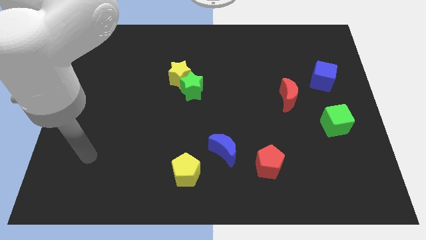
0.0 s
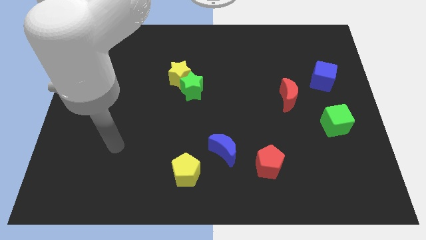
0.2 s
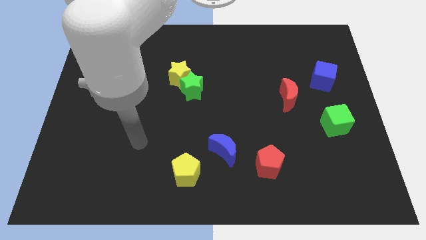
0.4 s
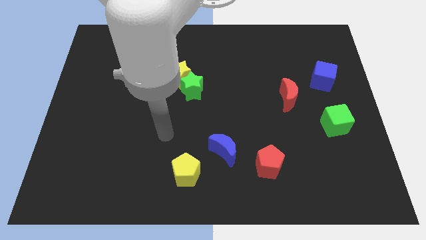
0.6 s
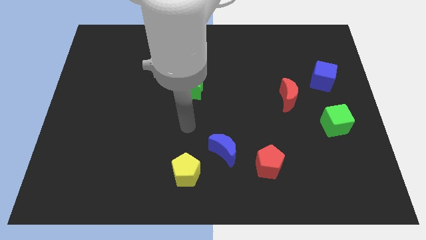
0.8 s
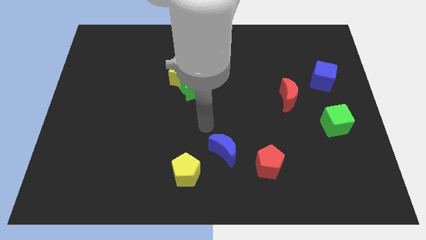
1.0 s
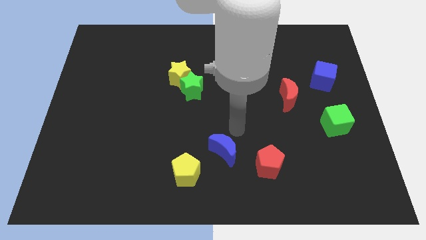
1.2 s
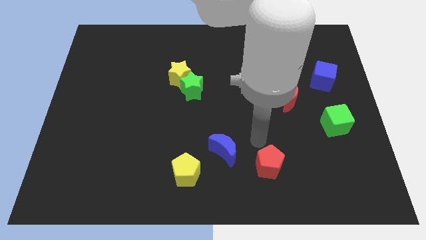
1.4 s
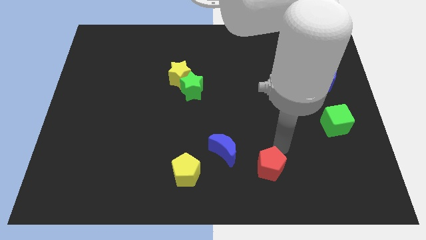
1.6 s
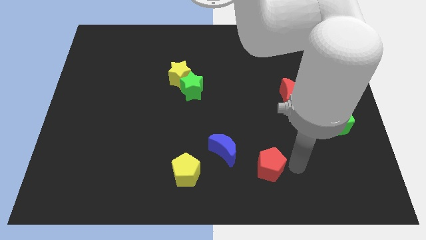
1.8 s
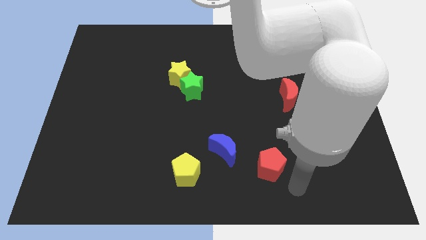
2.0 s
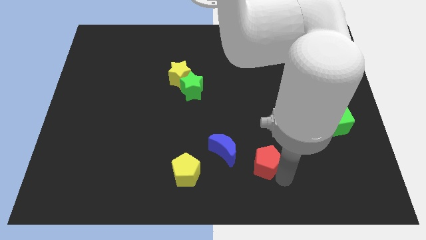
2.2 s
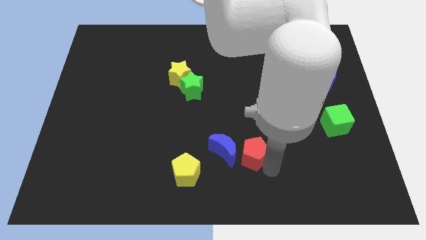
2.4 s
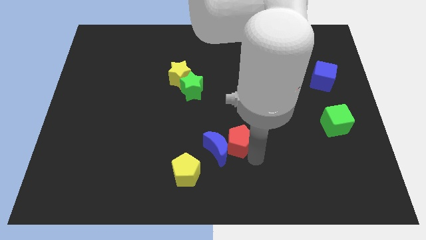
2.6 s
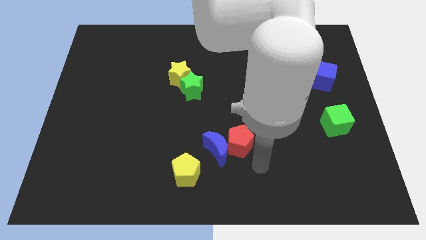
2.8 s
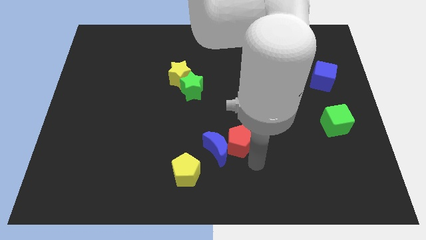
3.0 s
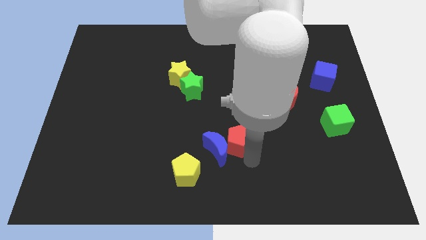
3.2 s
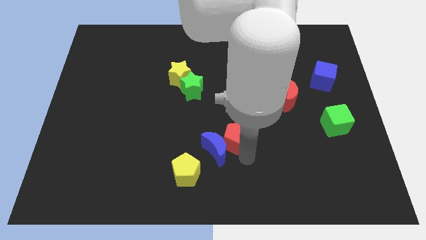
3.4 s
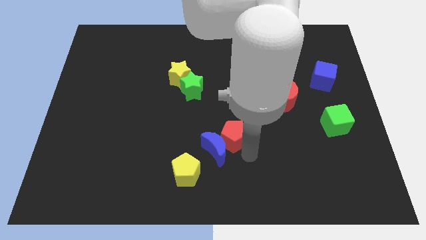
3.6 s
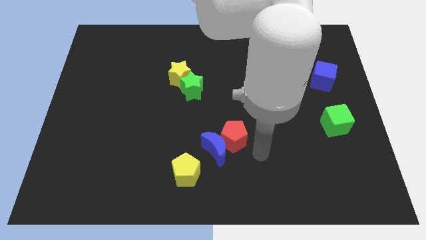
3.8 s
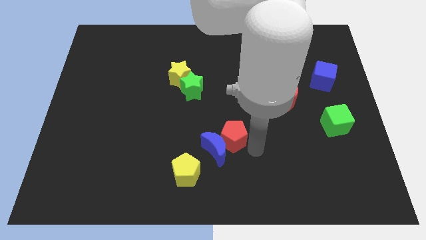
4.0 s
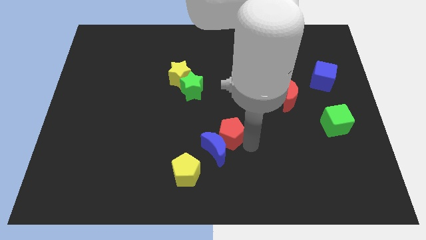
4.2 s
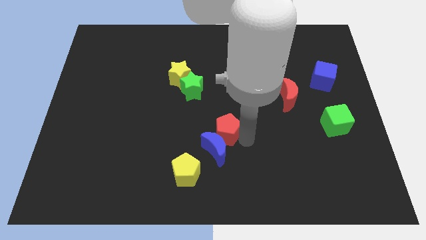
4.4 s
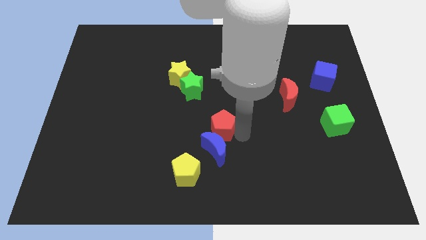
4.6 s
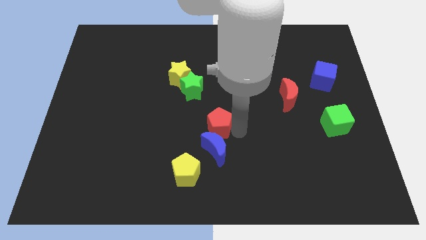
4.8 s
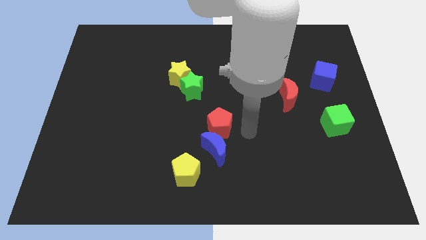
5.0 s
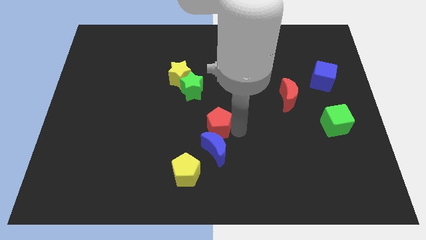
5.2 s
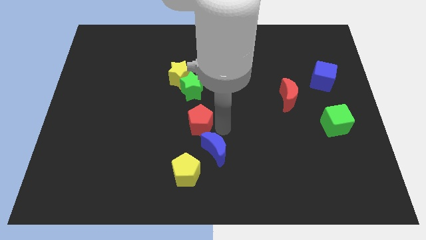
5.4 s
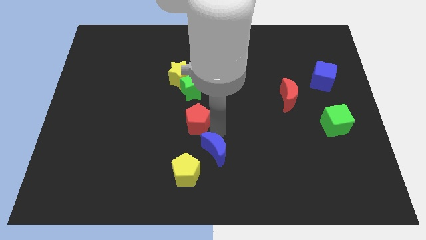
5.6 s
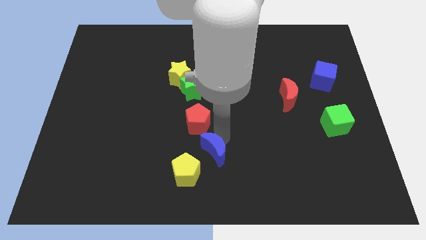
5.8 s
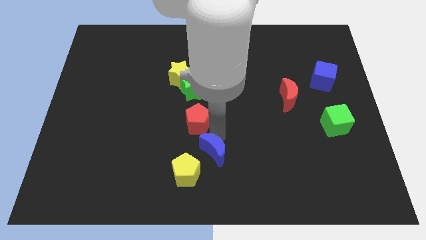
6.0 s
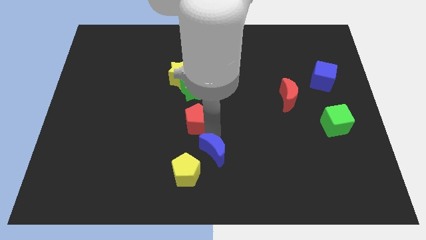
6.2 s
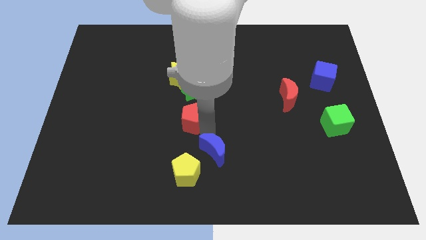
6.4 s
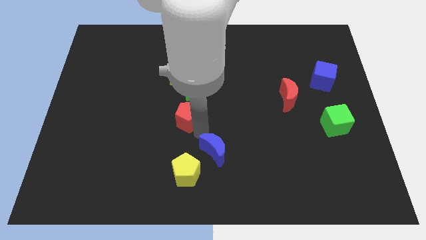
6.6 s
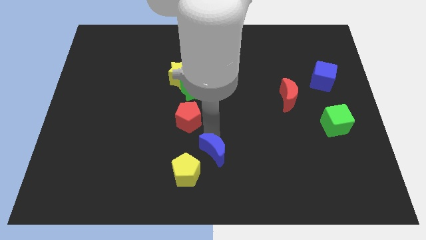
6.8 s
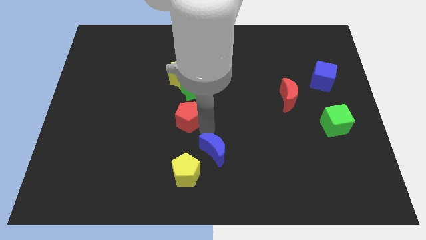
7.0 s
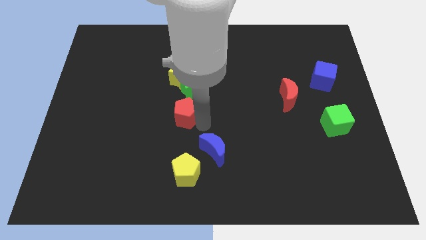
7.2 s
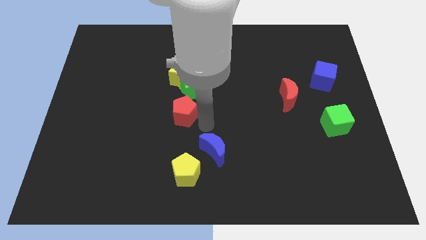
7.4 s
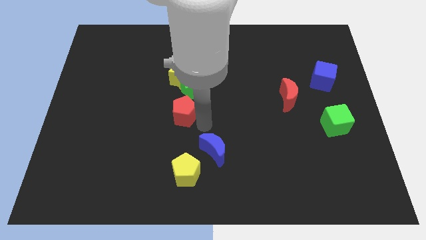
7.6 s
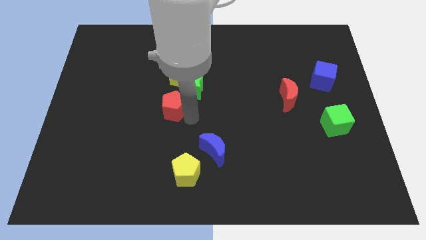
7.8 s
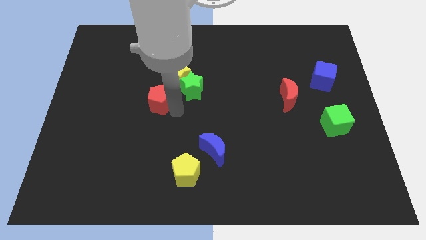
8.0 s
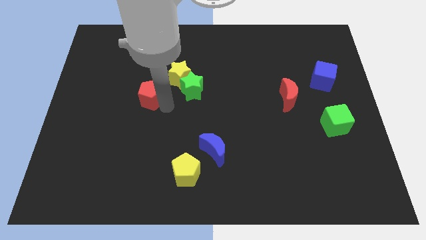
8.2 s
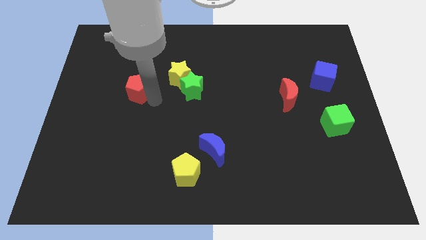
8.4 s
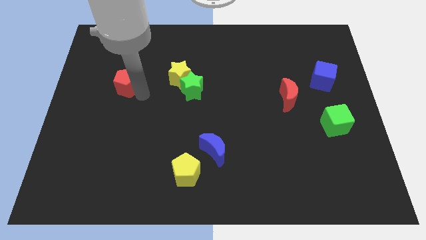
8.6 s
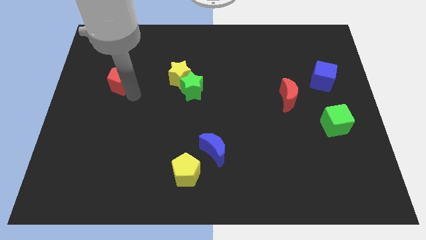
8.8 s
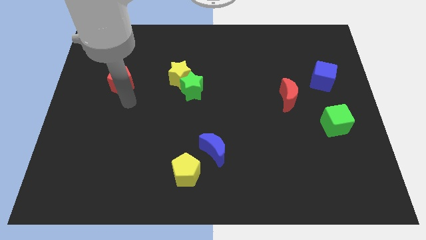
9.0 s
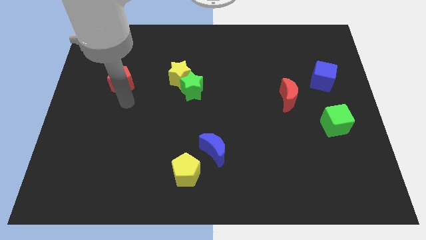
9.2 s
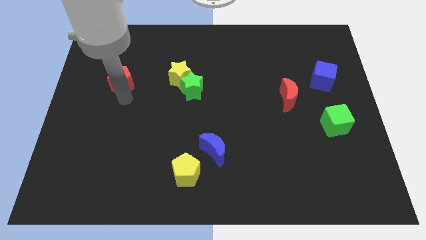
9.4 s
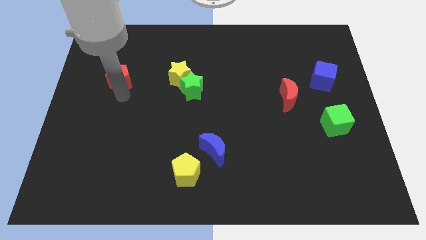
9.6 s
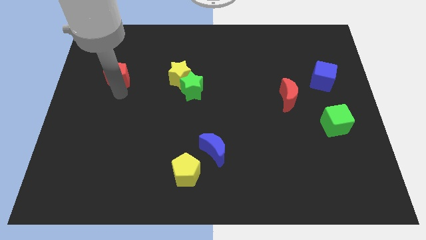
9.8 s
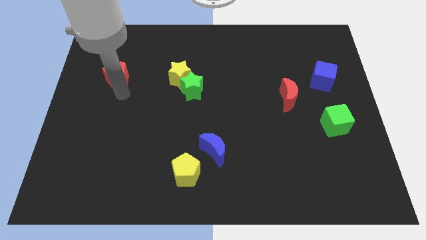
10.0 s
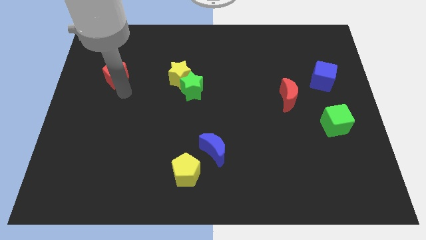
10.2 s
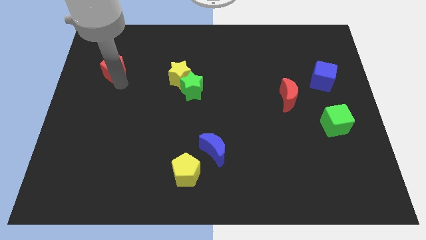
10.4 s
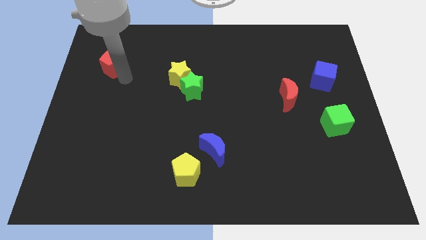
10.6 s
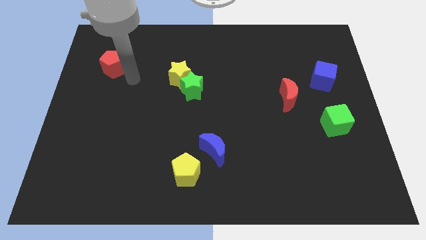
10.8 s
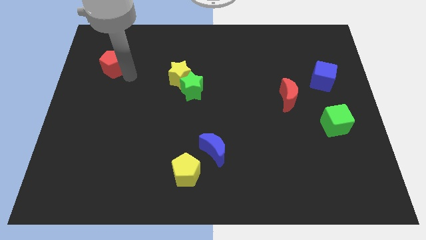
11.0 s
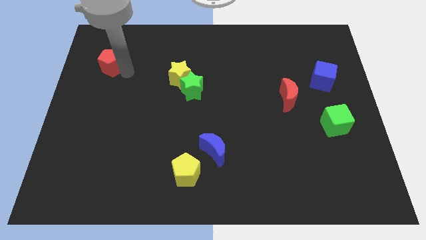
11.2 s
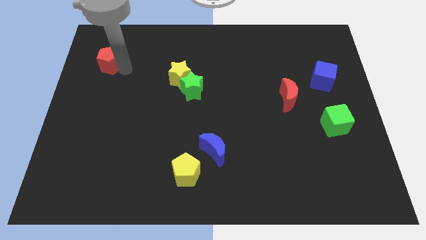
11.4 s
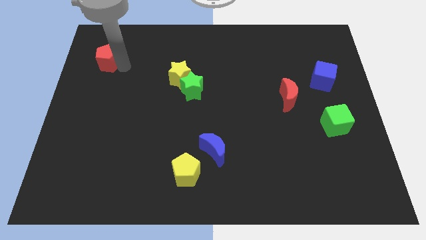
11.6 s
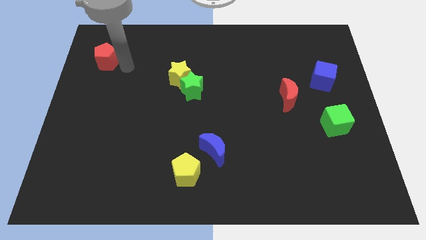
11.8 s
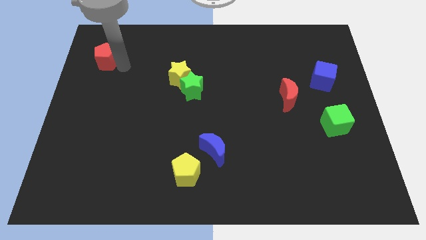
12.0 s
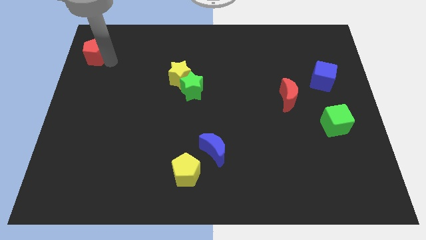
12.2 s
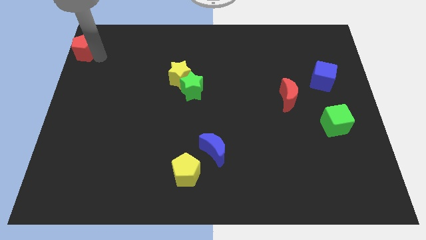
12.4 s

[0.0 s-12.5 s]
slide the red pentagon to the top left of the board
